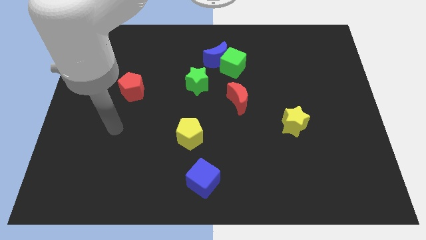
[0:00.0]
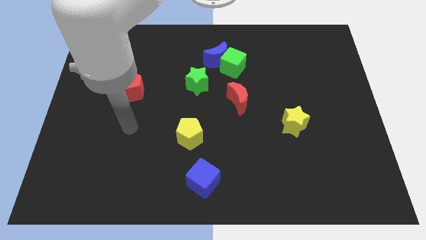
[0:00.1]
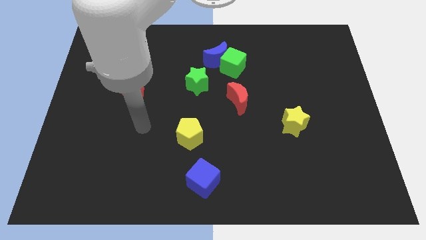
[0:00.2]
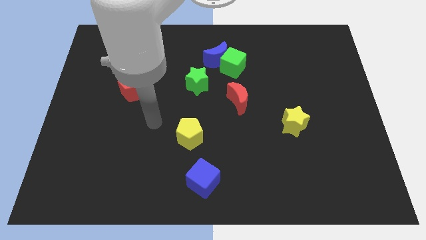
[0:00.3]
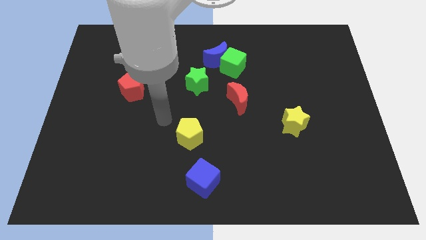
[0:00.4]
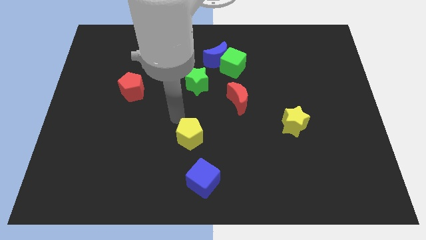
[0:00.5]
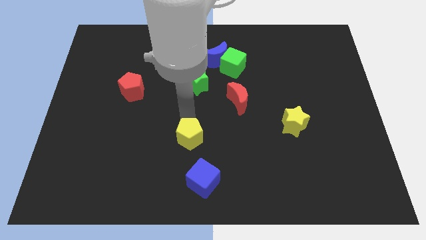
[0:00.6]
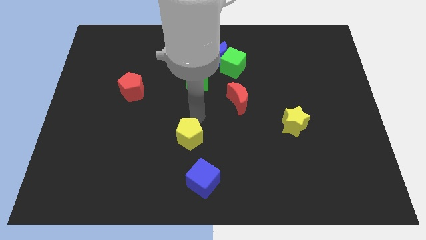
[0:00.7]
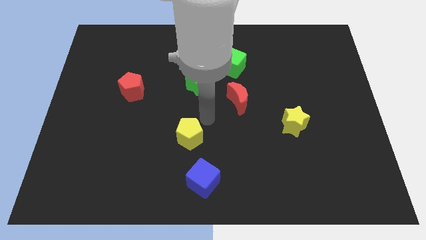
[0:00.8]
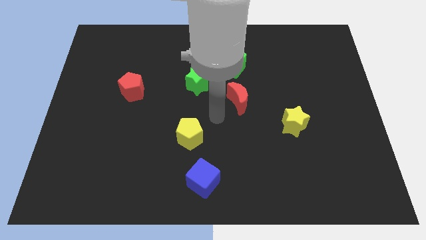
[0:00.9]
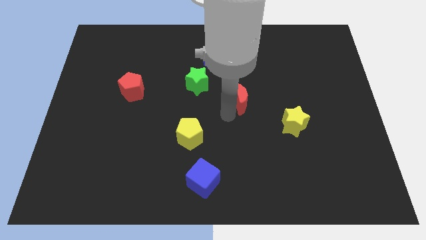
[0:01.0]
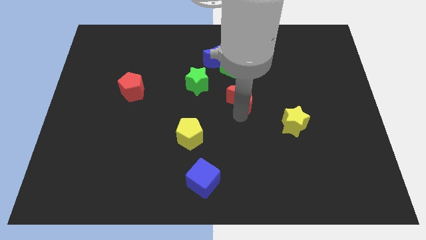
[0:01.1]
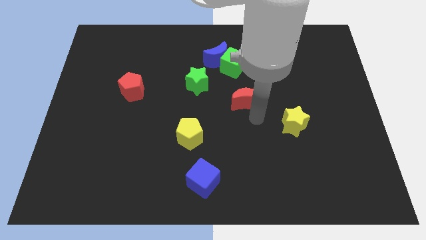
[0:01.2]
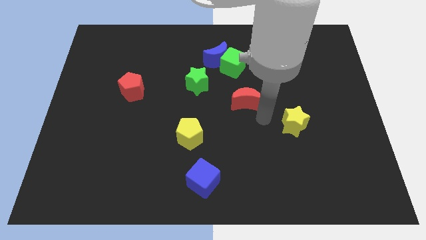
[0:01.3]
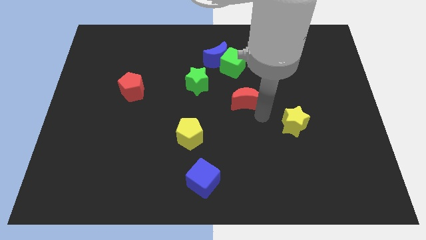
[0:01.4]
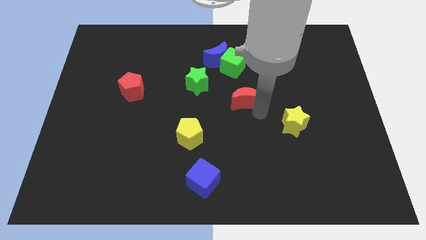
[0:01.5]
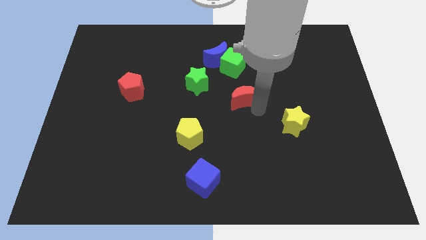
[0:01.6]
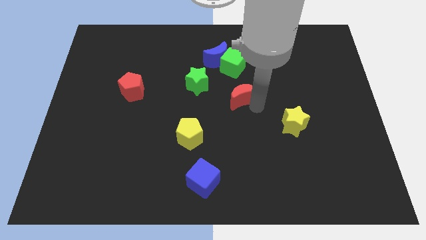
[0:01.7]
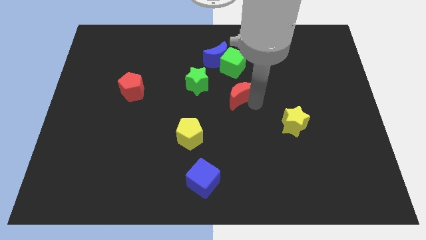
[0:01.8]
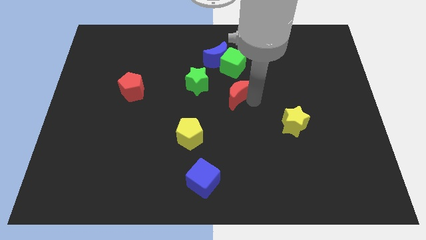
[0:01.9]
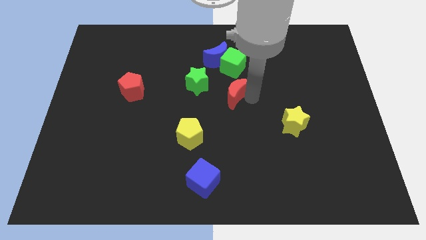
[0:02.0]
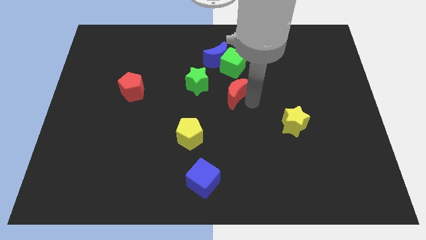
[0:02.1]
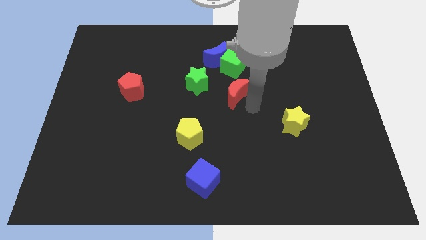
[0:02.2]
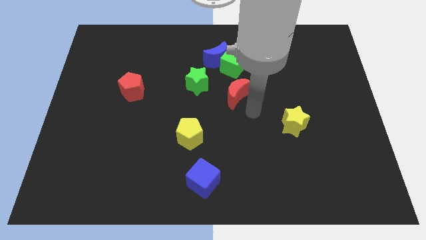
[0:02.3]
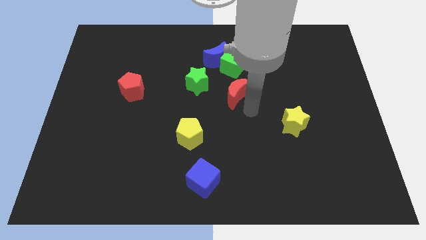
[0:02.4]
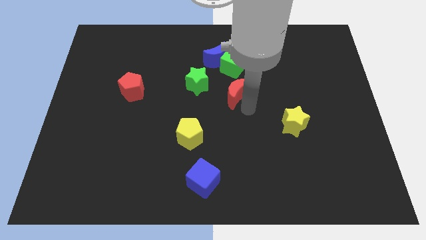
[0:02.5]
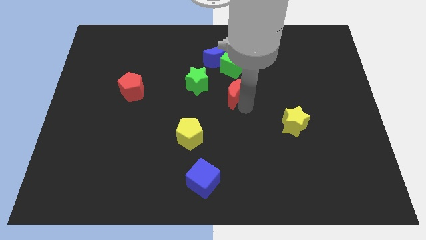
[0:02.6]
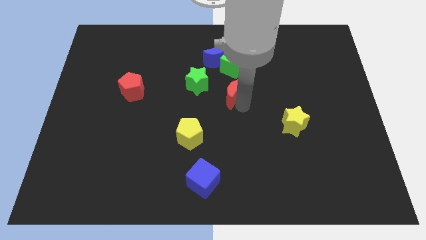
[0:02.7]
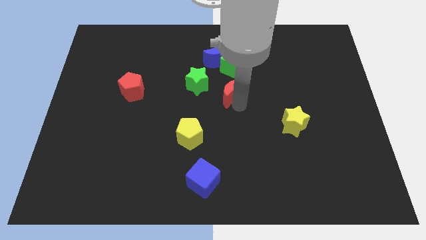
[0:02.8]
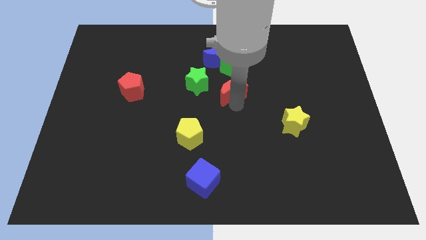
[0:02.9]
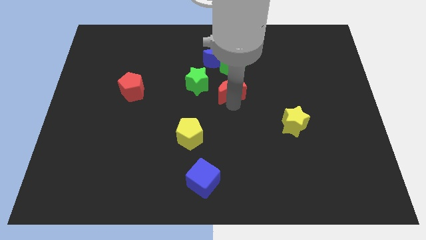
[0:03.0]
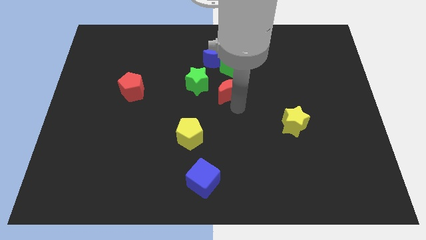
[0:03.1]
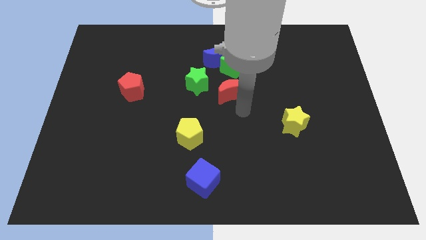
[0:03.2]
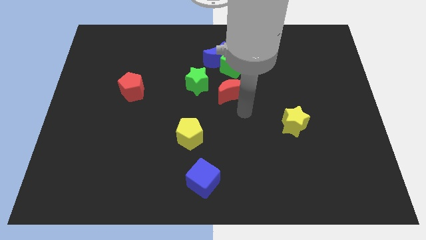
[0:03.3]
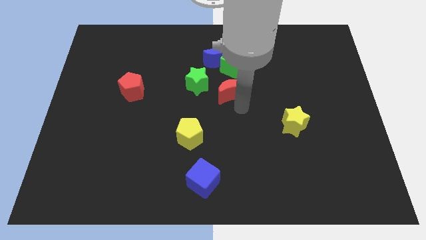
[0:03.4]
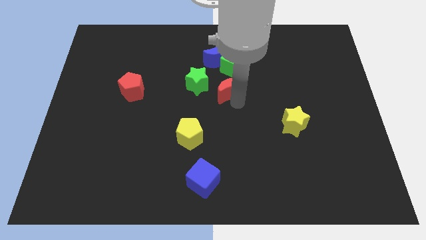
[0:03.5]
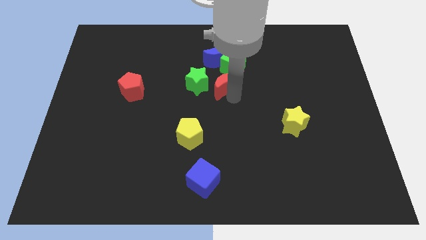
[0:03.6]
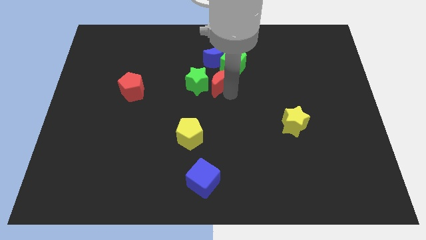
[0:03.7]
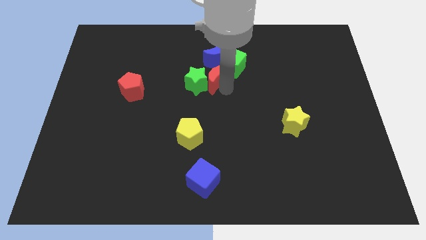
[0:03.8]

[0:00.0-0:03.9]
move the red moon somewhat up and to the left diagonally

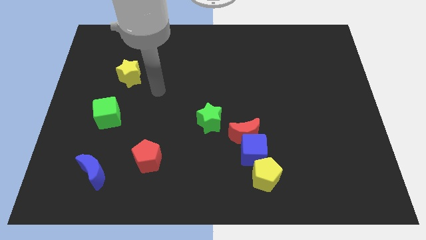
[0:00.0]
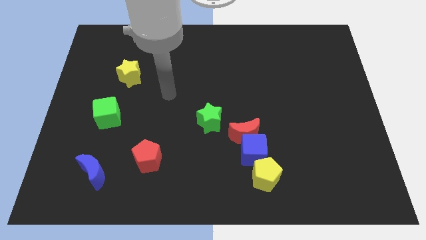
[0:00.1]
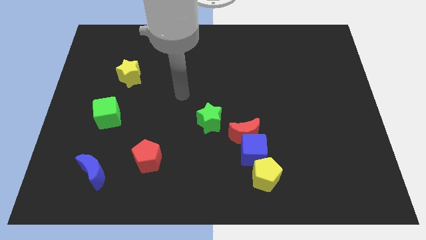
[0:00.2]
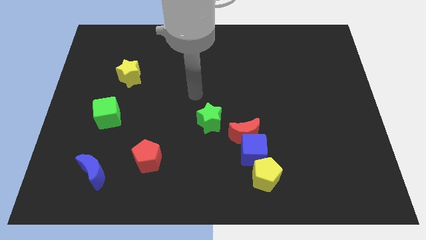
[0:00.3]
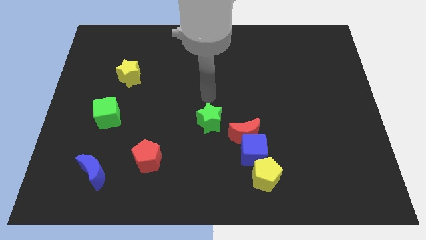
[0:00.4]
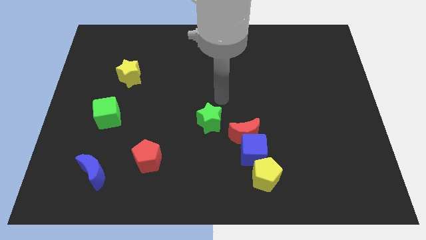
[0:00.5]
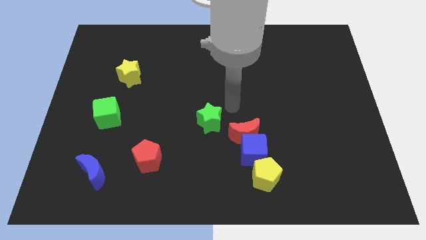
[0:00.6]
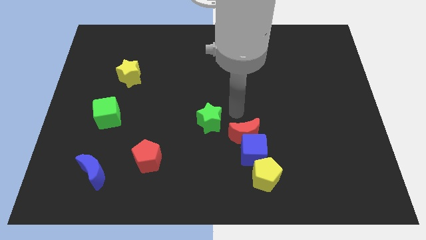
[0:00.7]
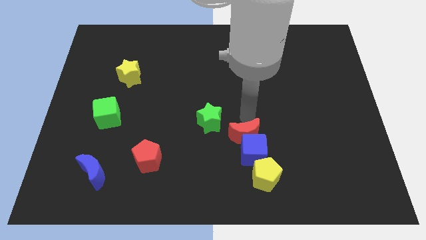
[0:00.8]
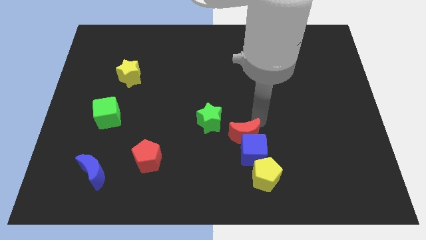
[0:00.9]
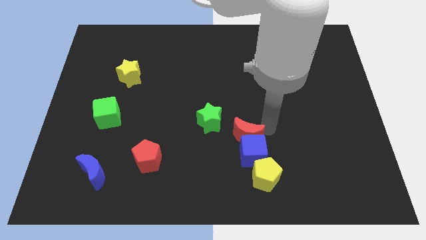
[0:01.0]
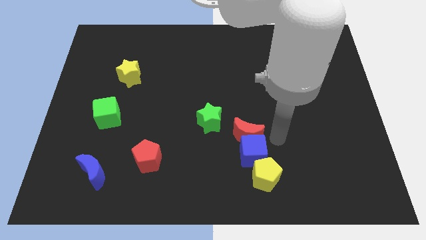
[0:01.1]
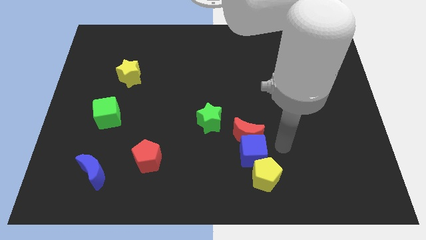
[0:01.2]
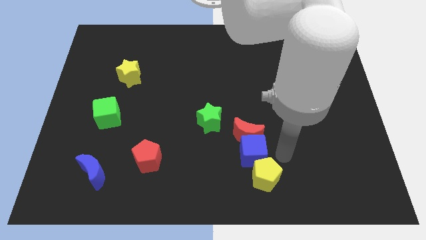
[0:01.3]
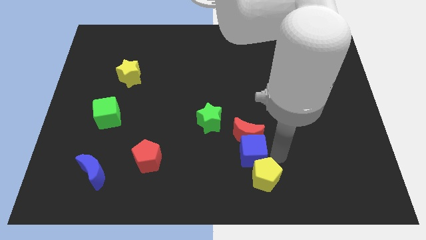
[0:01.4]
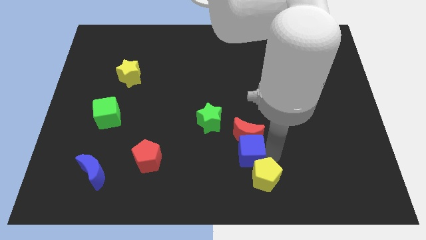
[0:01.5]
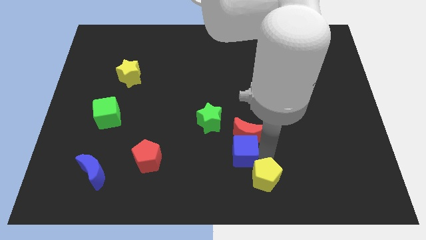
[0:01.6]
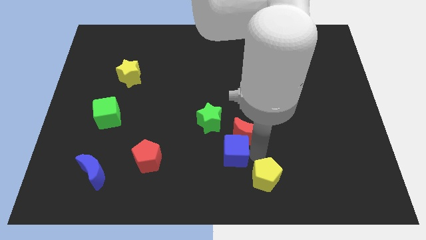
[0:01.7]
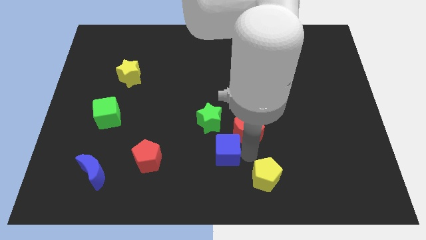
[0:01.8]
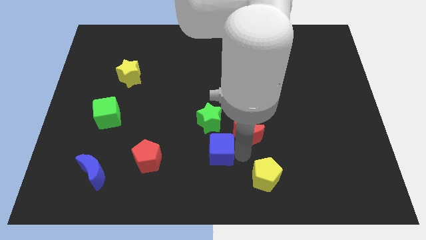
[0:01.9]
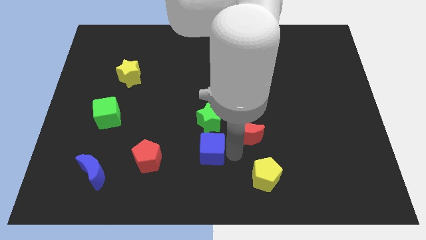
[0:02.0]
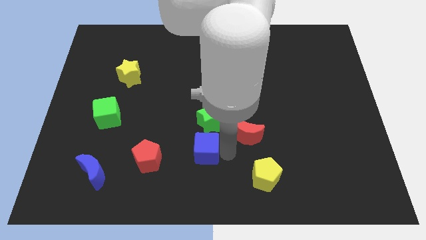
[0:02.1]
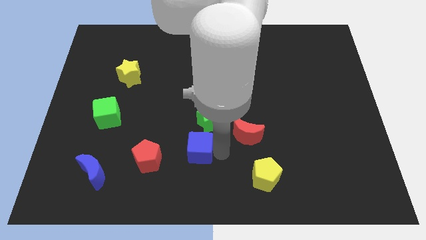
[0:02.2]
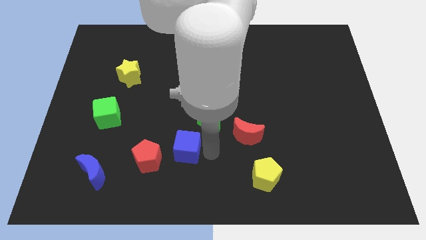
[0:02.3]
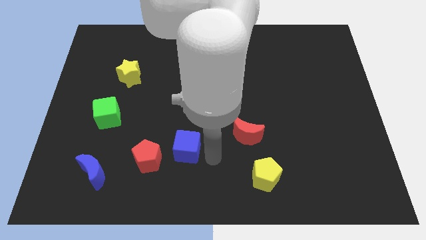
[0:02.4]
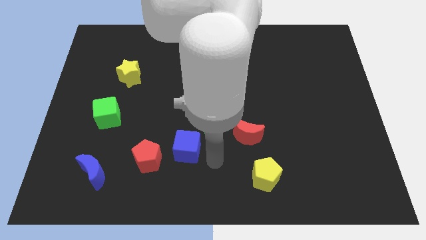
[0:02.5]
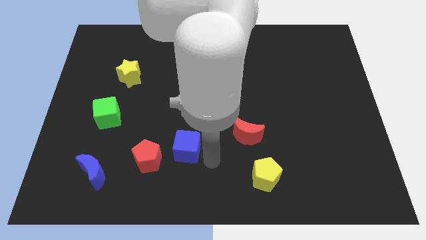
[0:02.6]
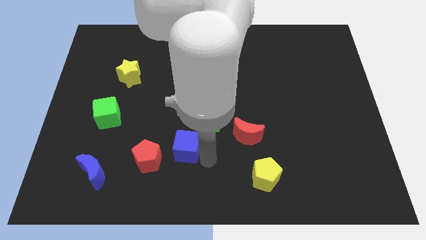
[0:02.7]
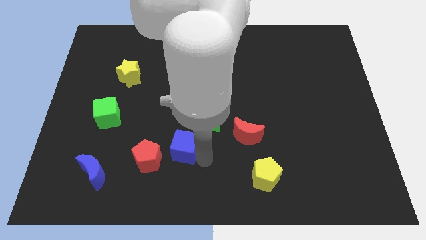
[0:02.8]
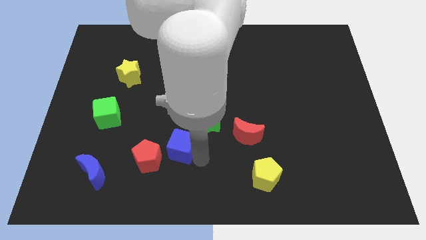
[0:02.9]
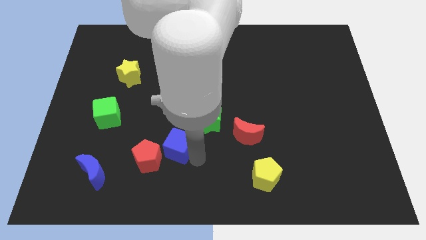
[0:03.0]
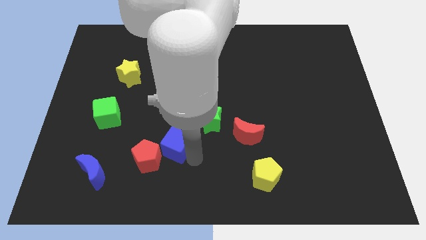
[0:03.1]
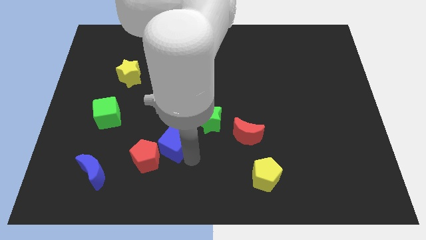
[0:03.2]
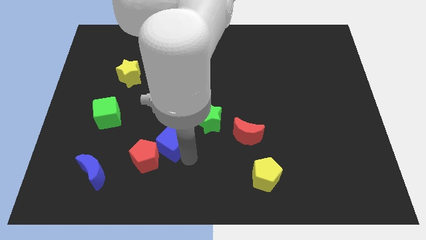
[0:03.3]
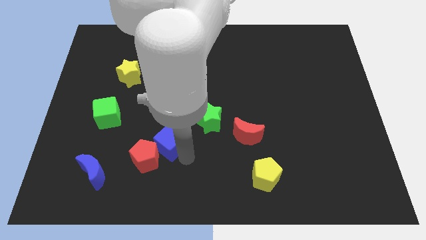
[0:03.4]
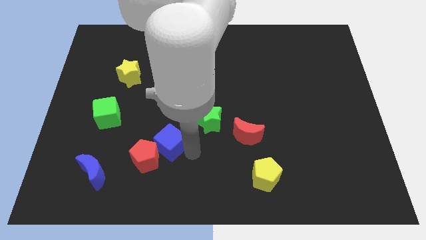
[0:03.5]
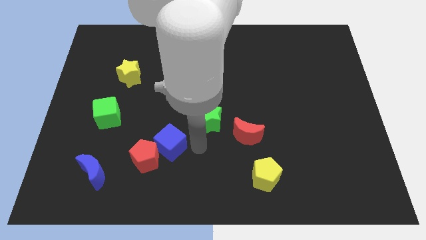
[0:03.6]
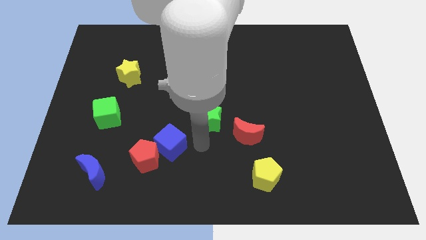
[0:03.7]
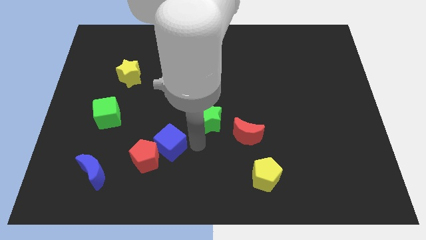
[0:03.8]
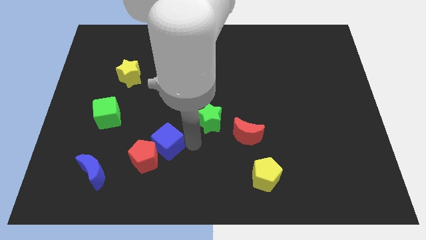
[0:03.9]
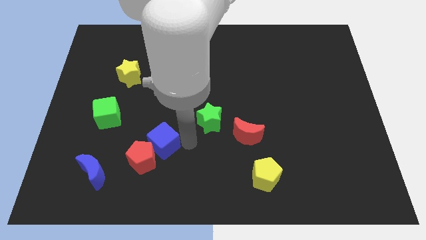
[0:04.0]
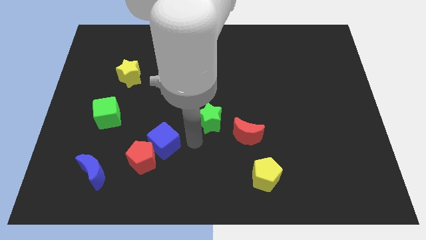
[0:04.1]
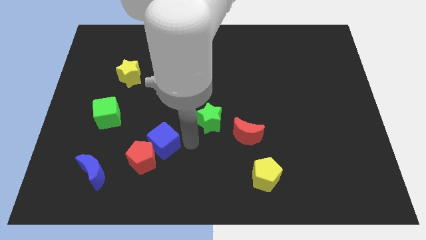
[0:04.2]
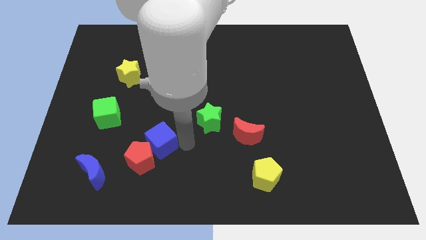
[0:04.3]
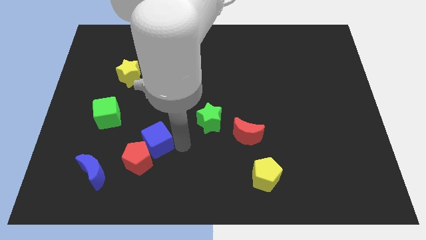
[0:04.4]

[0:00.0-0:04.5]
push the blue cube to the left
